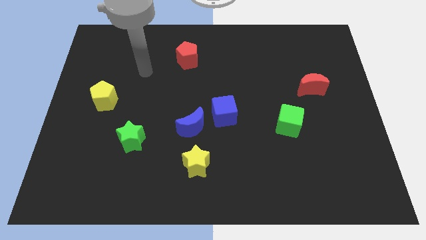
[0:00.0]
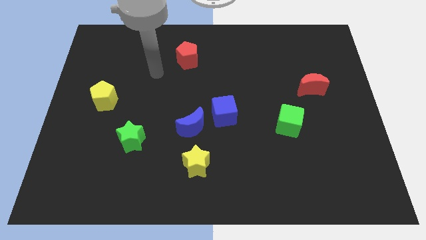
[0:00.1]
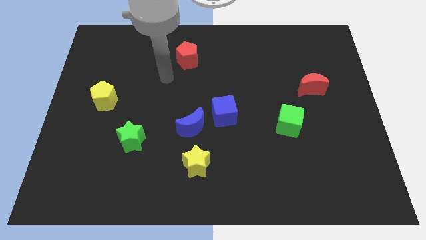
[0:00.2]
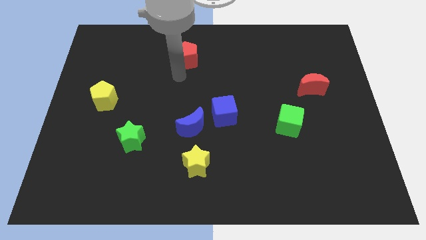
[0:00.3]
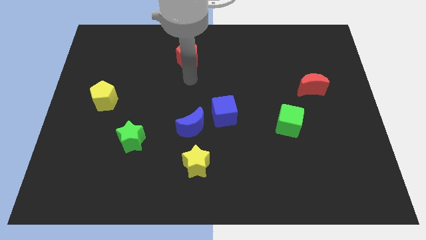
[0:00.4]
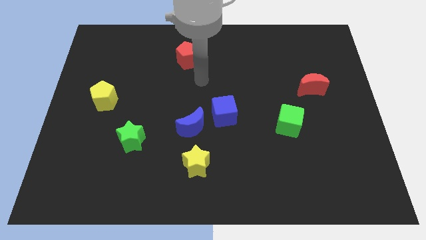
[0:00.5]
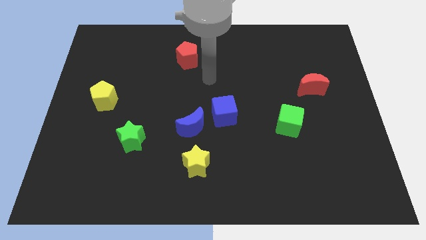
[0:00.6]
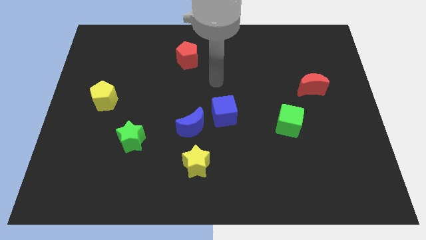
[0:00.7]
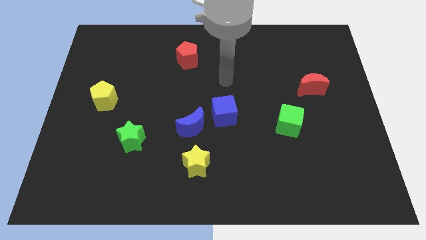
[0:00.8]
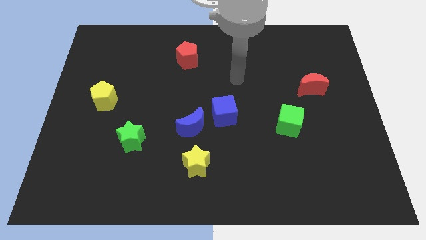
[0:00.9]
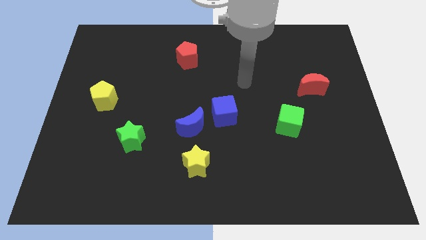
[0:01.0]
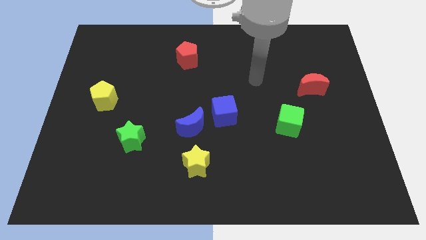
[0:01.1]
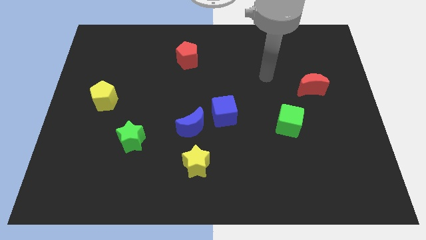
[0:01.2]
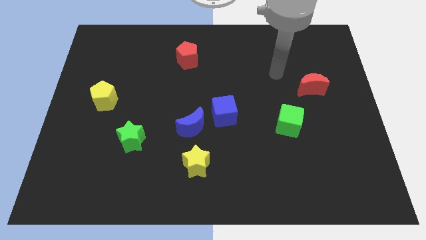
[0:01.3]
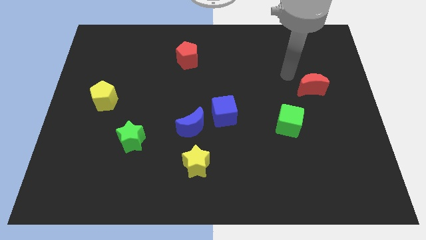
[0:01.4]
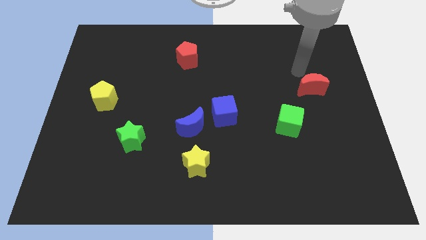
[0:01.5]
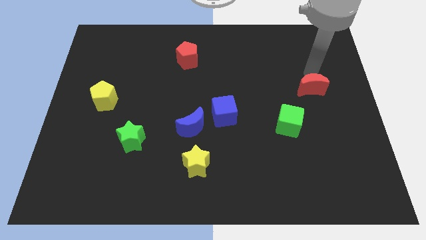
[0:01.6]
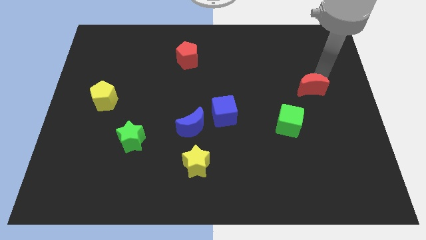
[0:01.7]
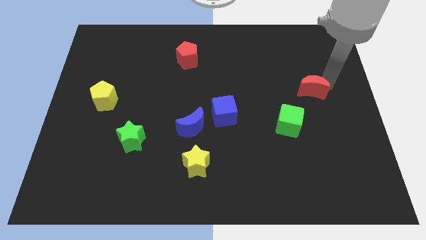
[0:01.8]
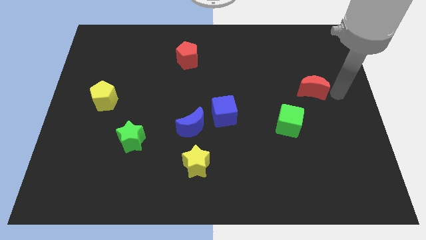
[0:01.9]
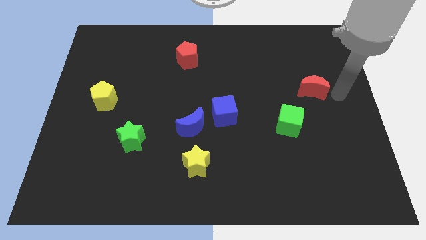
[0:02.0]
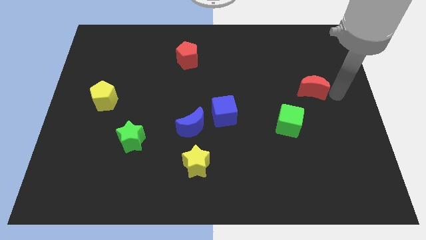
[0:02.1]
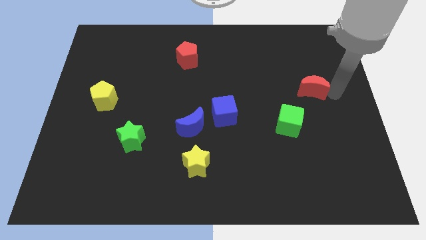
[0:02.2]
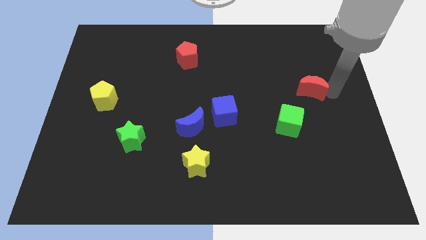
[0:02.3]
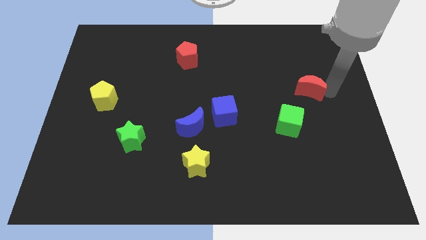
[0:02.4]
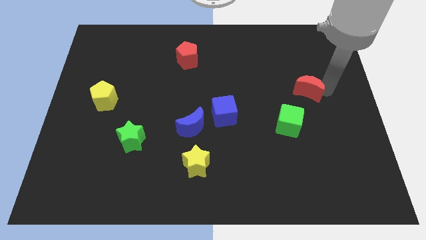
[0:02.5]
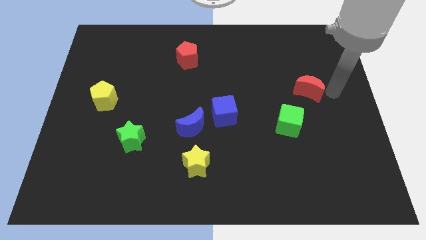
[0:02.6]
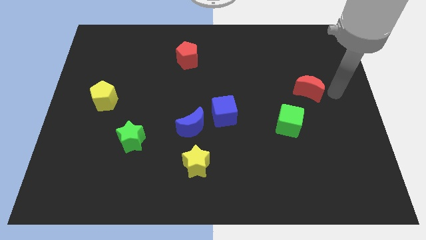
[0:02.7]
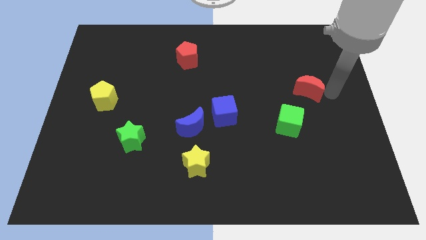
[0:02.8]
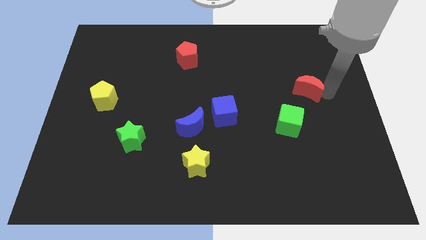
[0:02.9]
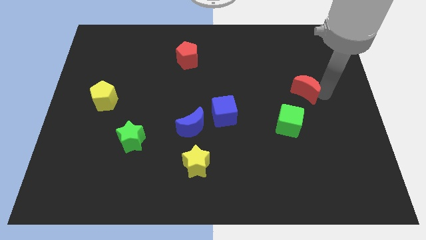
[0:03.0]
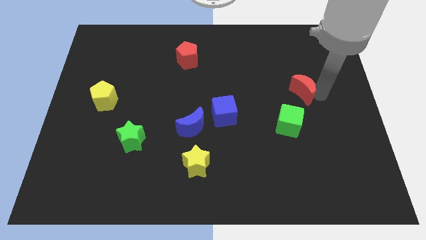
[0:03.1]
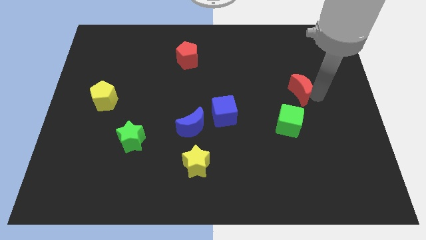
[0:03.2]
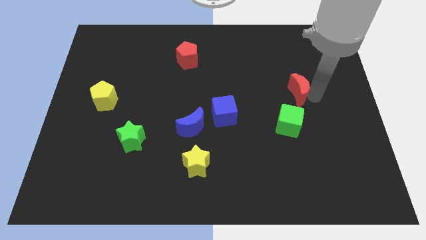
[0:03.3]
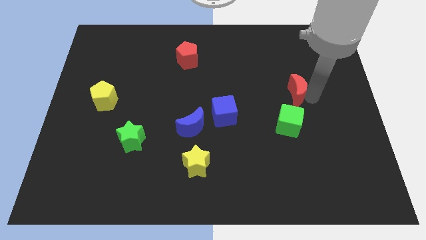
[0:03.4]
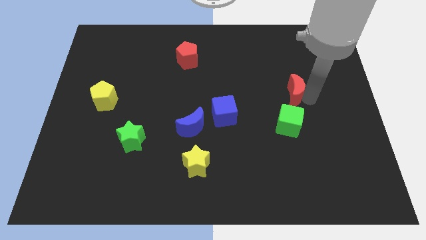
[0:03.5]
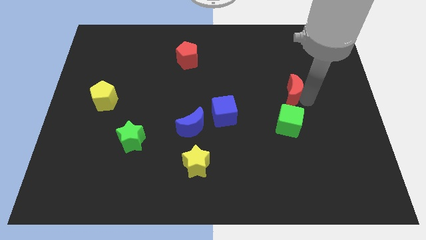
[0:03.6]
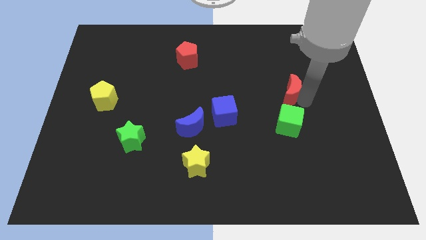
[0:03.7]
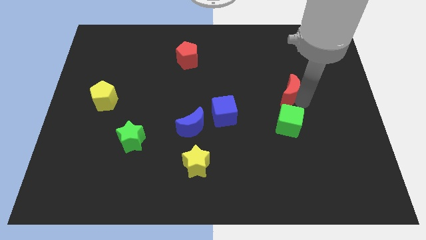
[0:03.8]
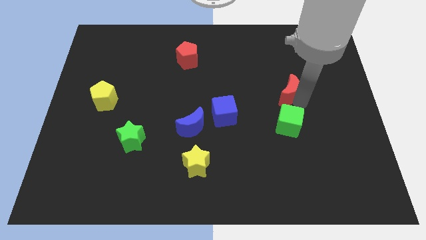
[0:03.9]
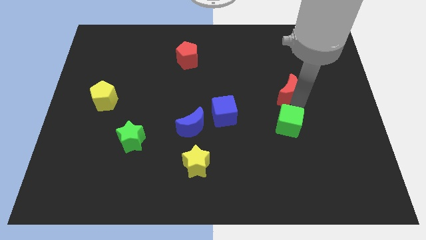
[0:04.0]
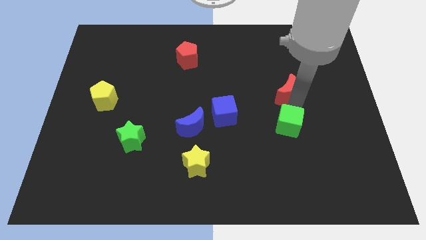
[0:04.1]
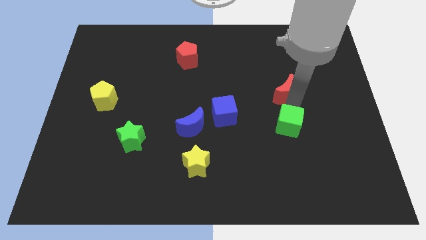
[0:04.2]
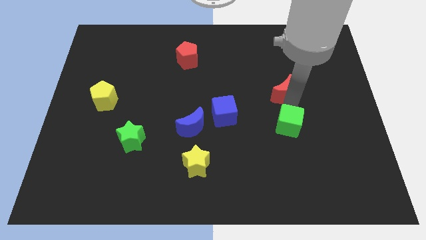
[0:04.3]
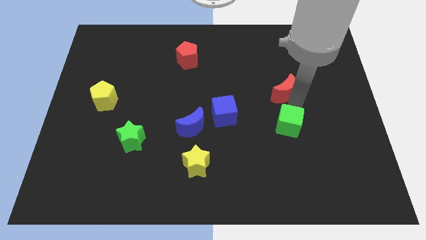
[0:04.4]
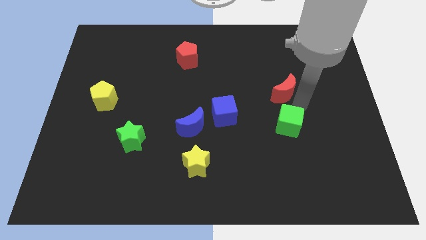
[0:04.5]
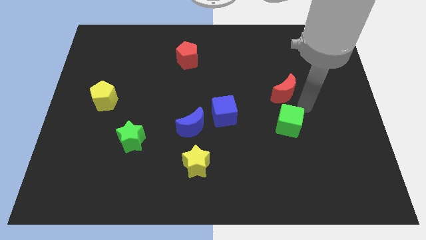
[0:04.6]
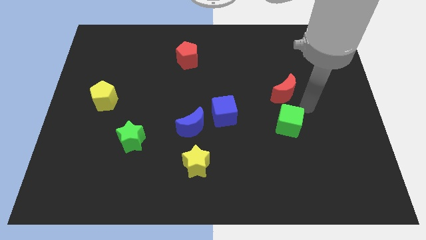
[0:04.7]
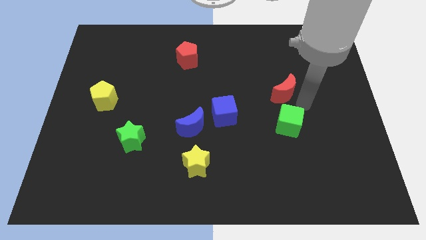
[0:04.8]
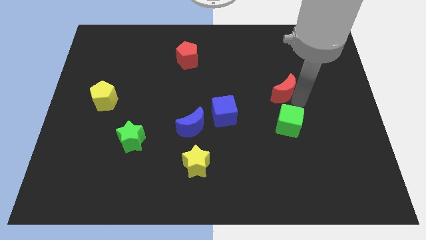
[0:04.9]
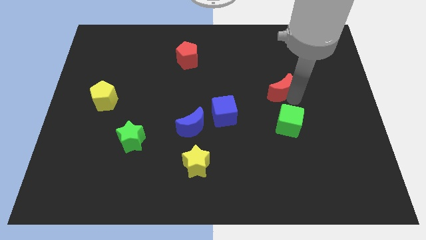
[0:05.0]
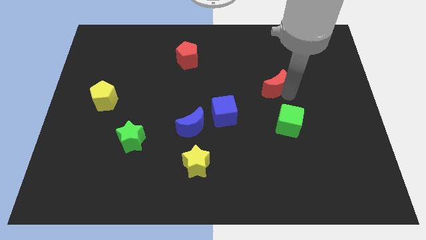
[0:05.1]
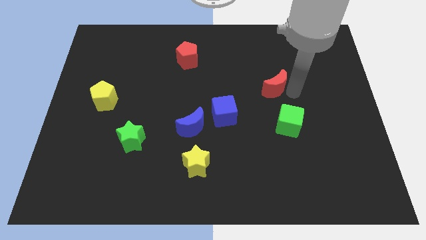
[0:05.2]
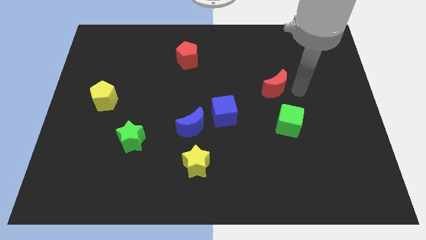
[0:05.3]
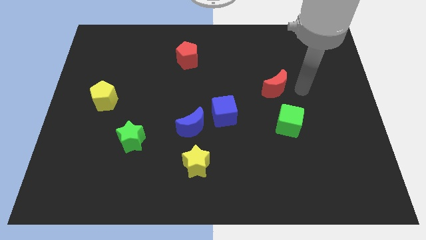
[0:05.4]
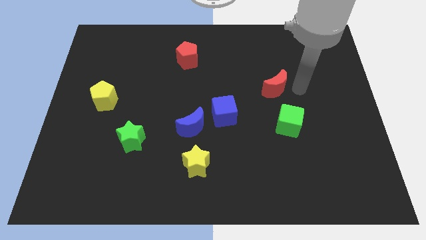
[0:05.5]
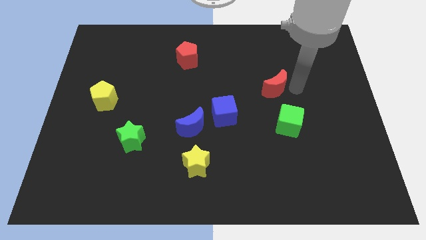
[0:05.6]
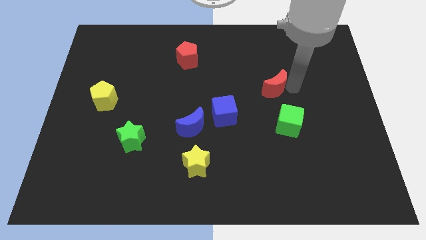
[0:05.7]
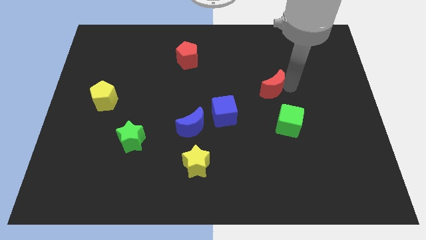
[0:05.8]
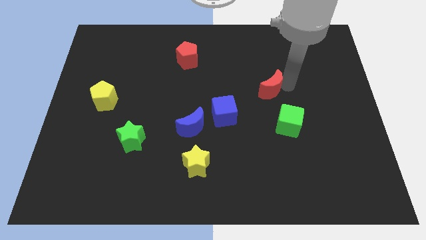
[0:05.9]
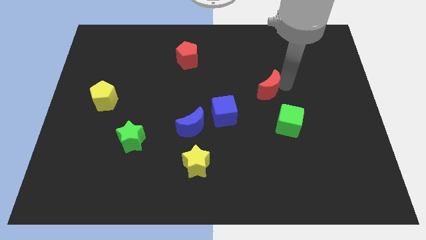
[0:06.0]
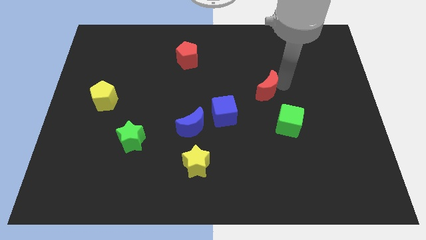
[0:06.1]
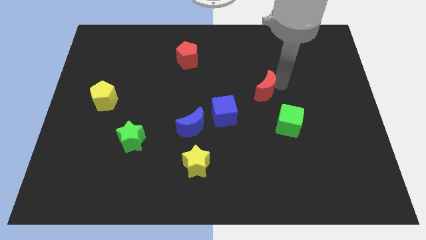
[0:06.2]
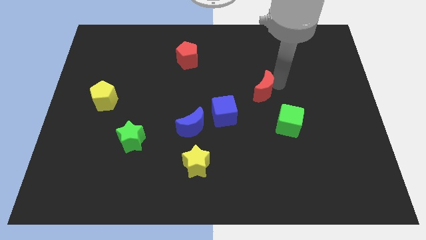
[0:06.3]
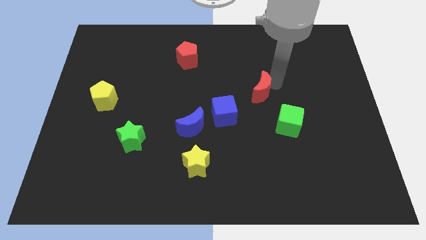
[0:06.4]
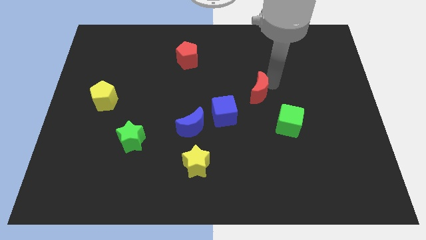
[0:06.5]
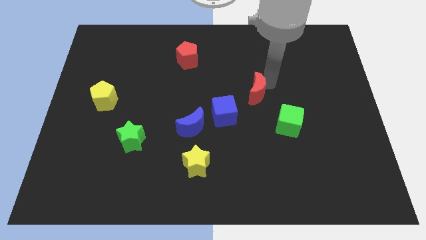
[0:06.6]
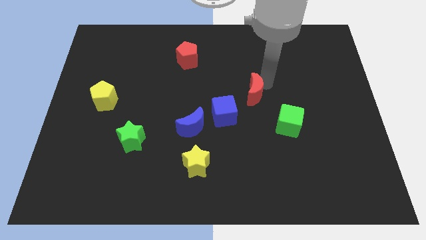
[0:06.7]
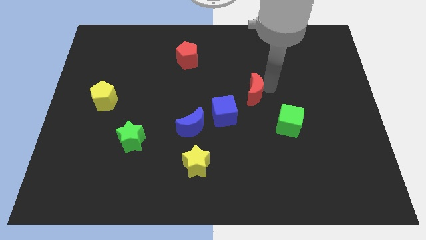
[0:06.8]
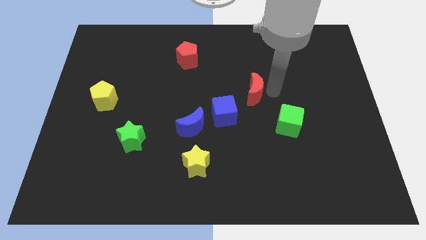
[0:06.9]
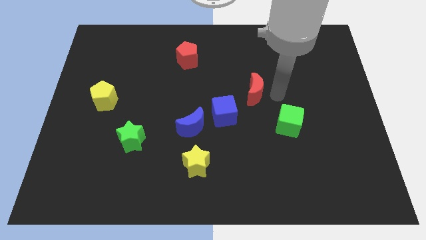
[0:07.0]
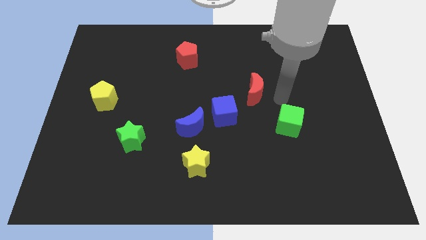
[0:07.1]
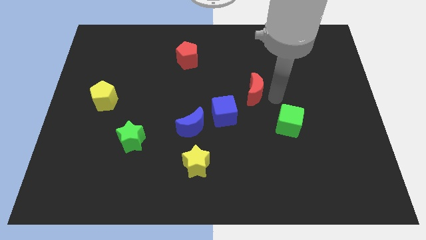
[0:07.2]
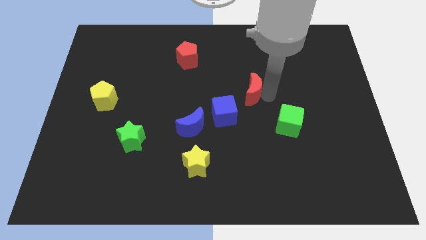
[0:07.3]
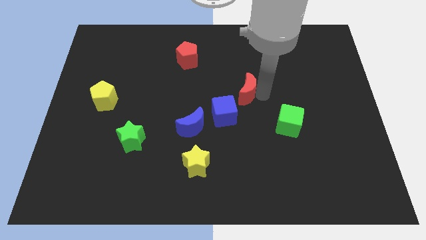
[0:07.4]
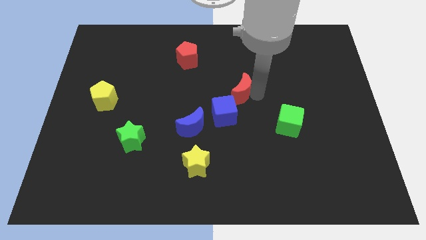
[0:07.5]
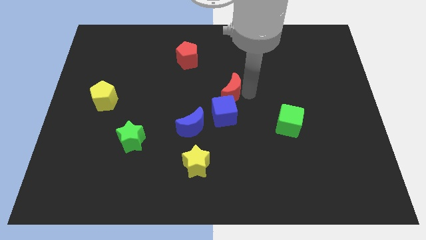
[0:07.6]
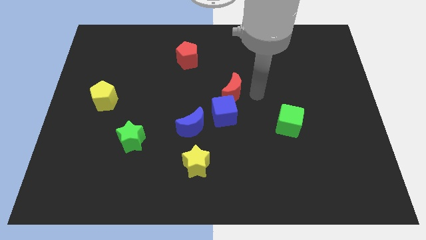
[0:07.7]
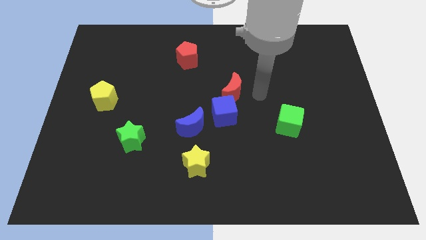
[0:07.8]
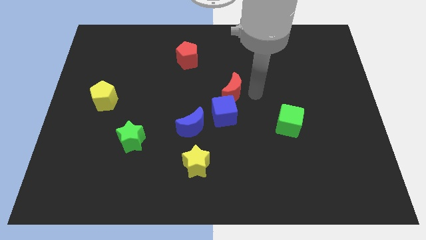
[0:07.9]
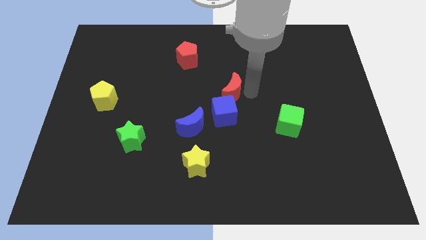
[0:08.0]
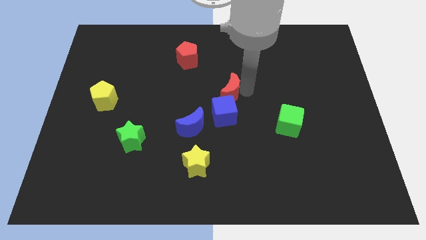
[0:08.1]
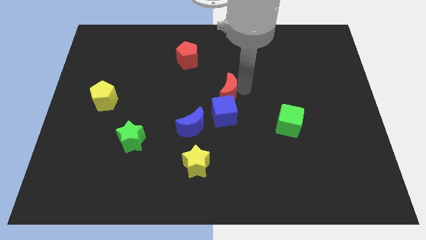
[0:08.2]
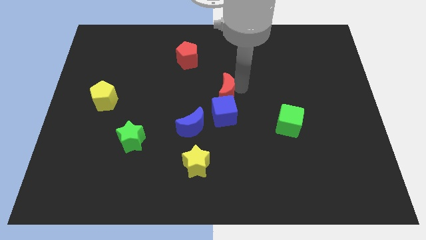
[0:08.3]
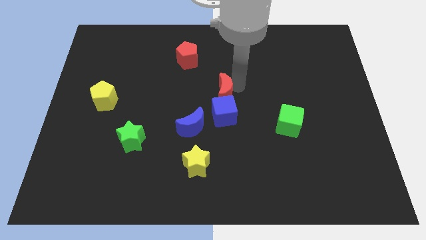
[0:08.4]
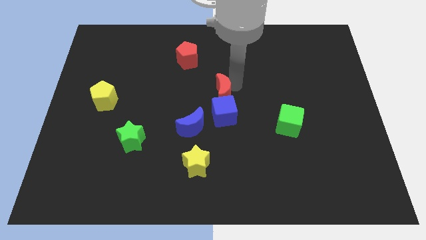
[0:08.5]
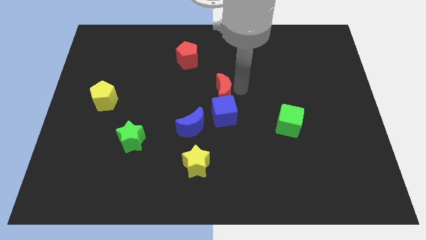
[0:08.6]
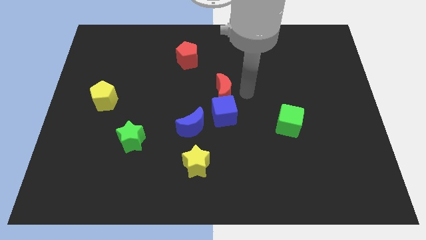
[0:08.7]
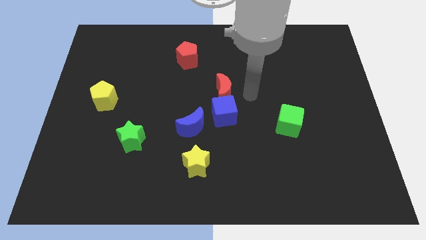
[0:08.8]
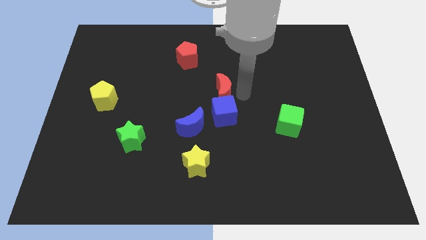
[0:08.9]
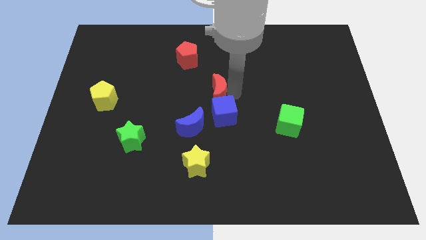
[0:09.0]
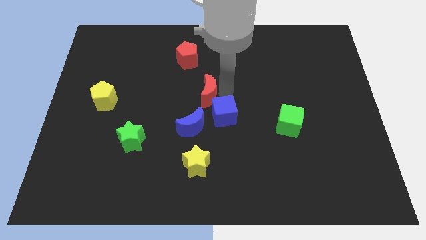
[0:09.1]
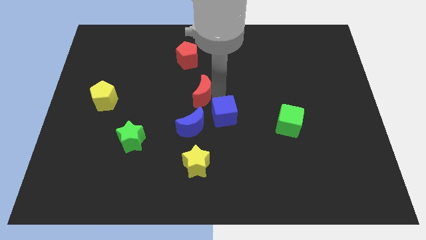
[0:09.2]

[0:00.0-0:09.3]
move the red moon to the bottom of the red pentagon
